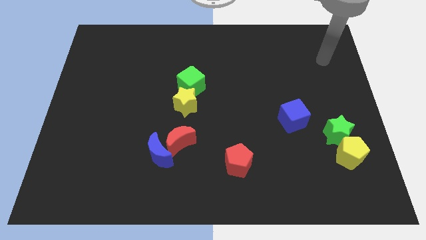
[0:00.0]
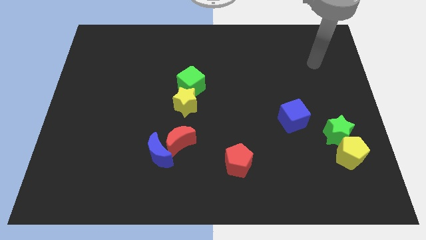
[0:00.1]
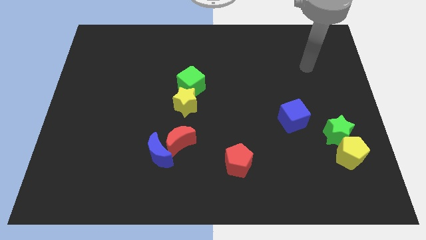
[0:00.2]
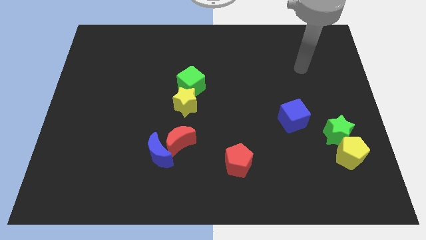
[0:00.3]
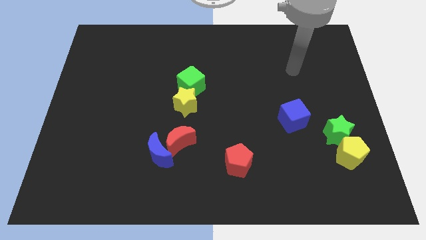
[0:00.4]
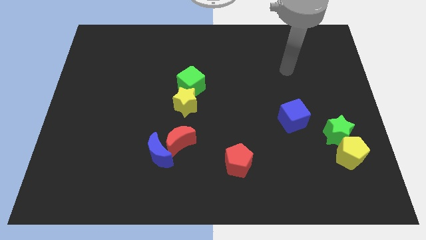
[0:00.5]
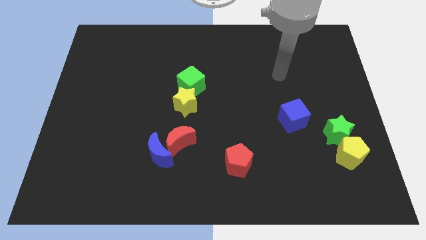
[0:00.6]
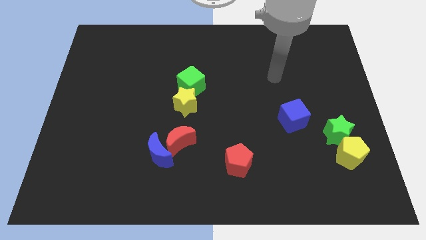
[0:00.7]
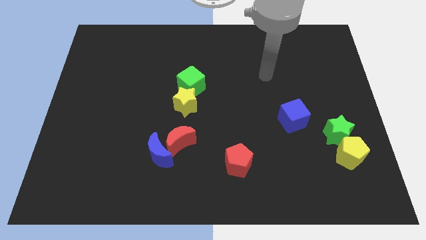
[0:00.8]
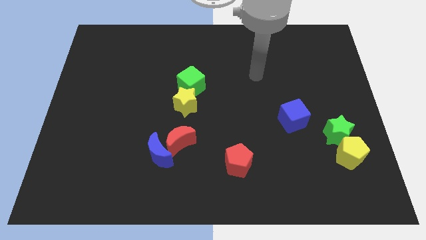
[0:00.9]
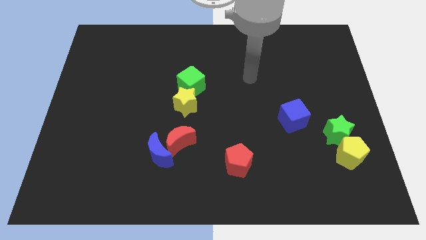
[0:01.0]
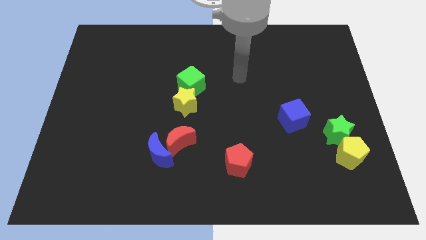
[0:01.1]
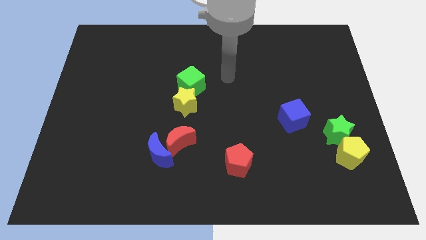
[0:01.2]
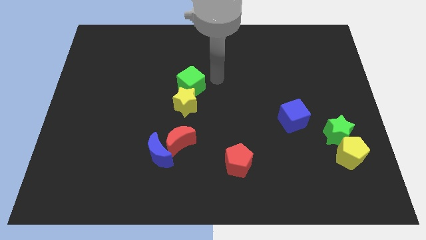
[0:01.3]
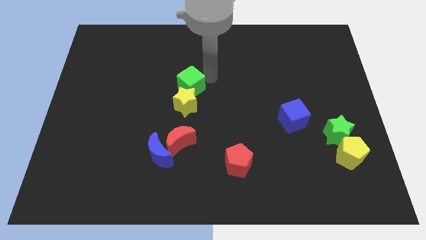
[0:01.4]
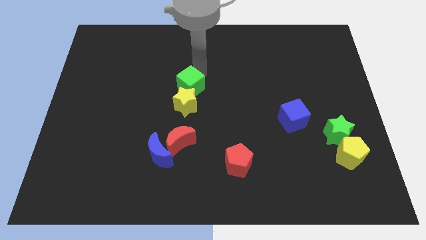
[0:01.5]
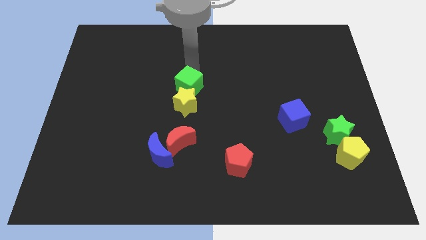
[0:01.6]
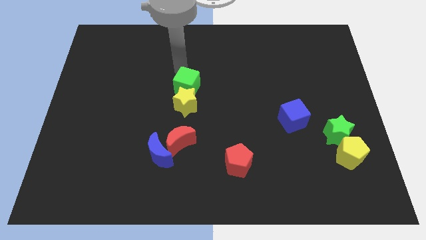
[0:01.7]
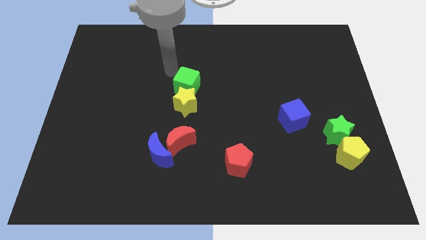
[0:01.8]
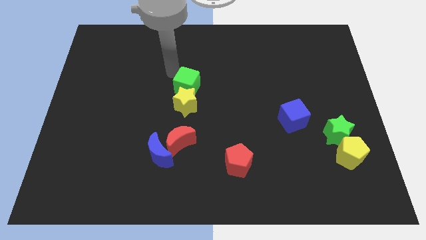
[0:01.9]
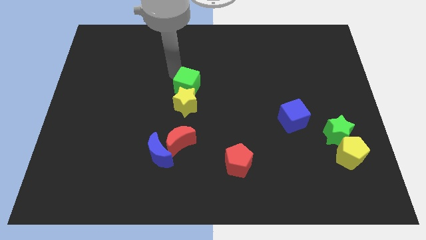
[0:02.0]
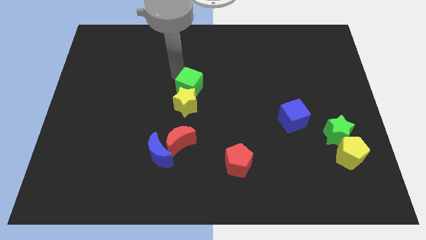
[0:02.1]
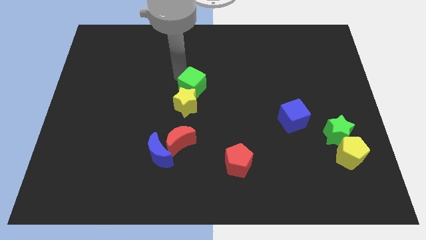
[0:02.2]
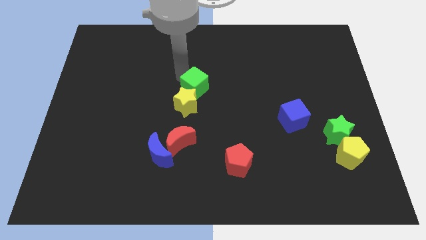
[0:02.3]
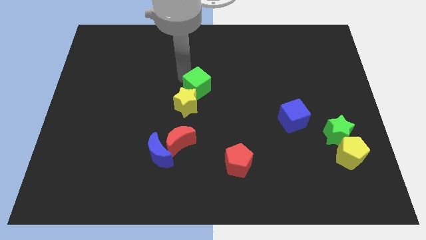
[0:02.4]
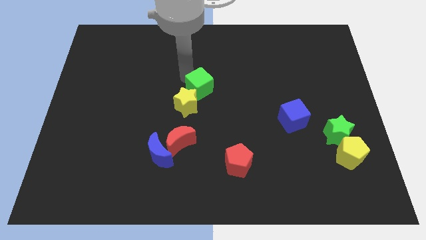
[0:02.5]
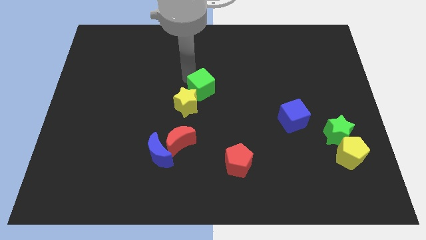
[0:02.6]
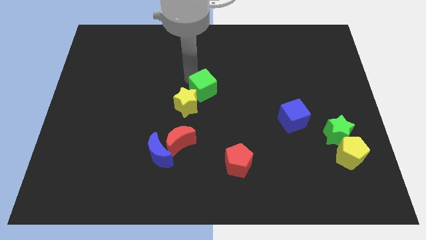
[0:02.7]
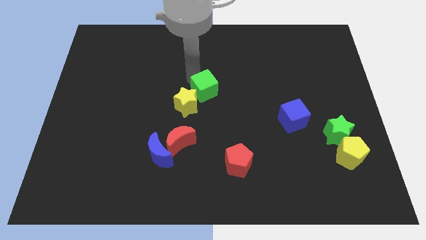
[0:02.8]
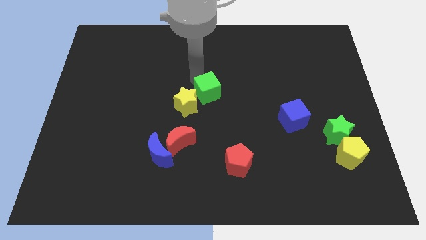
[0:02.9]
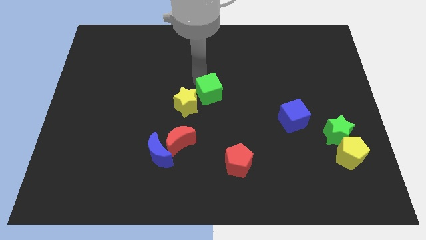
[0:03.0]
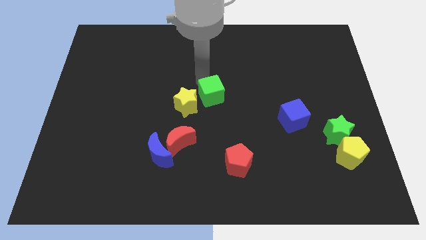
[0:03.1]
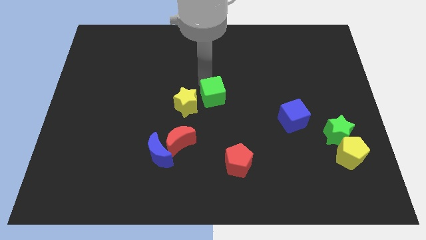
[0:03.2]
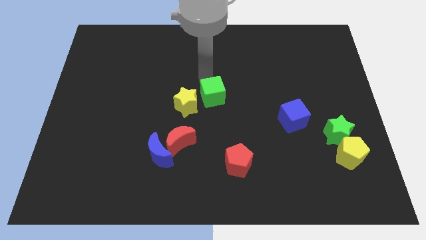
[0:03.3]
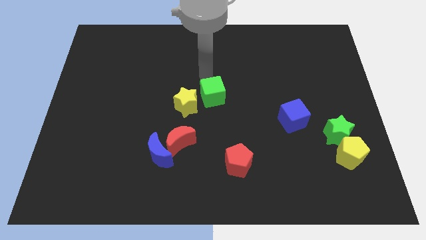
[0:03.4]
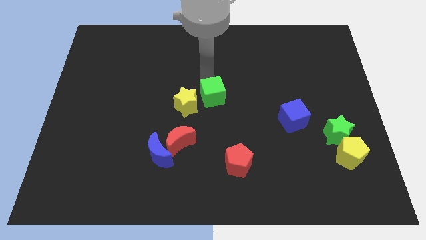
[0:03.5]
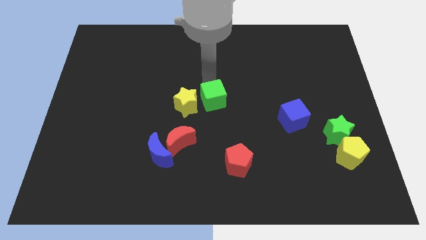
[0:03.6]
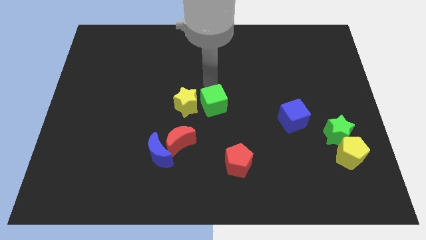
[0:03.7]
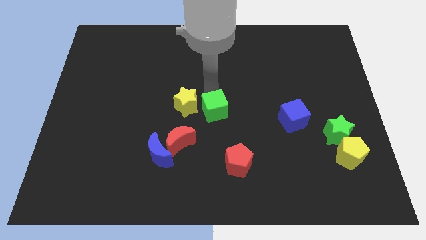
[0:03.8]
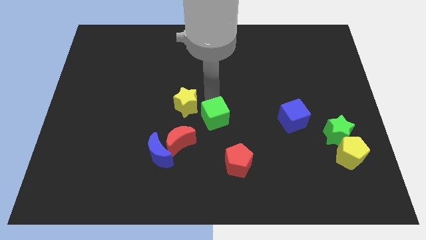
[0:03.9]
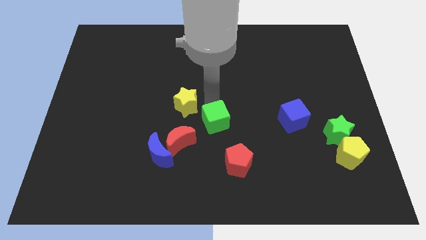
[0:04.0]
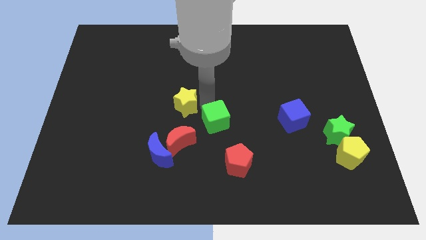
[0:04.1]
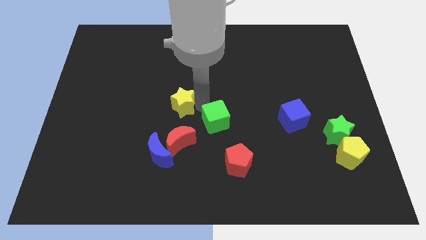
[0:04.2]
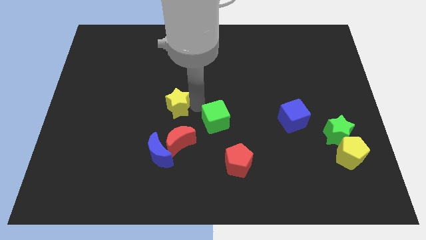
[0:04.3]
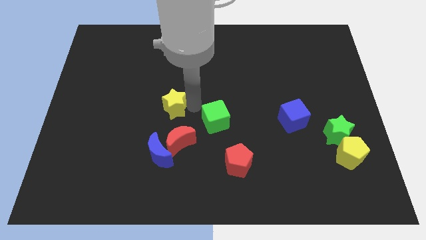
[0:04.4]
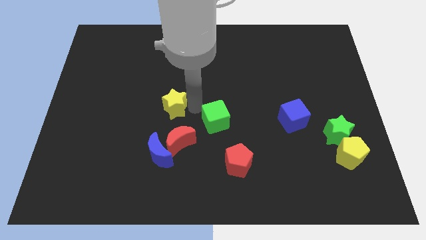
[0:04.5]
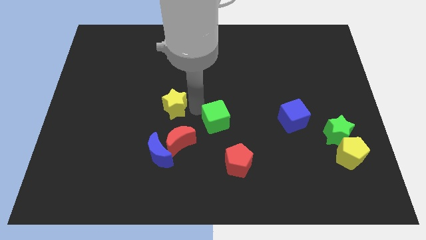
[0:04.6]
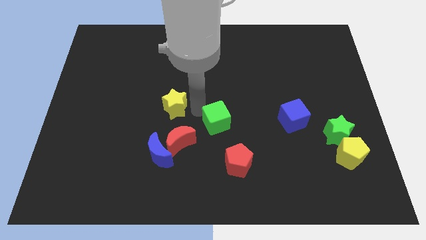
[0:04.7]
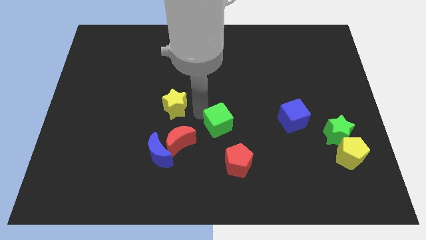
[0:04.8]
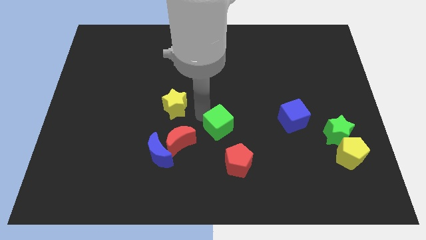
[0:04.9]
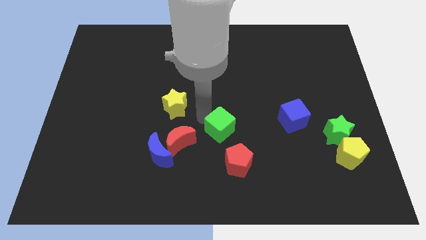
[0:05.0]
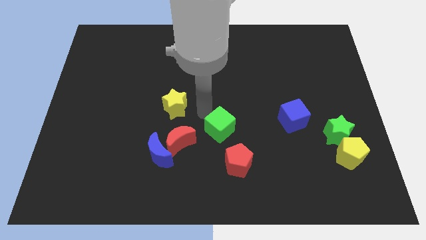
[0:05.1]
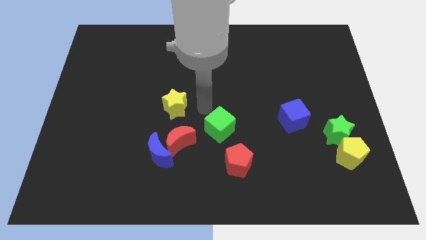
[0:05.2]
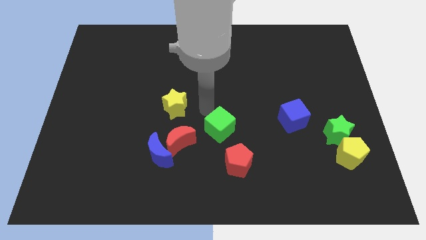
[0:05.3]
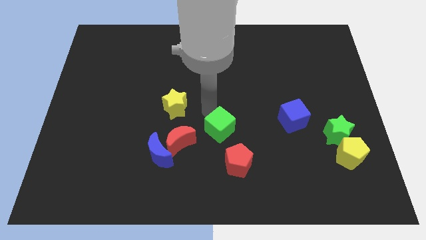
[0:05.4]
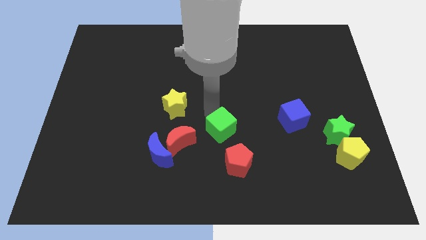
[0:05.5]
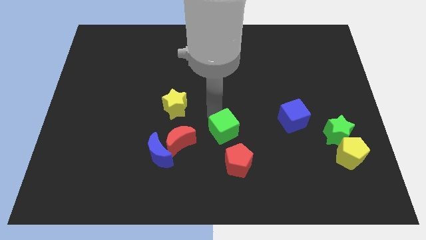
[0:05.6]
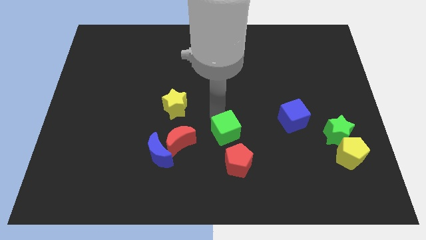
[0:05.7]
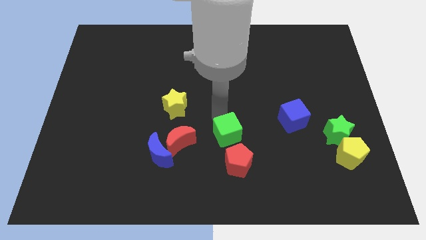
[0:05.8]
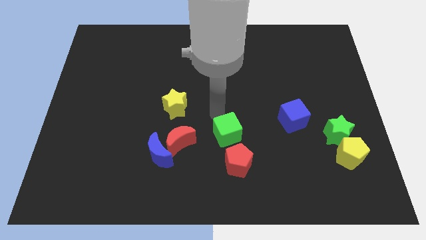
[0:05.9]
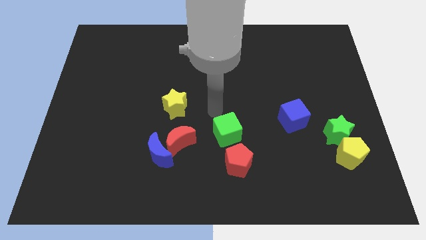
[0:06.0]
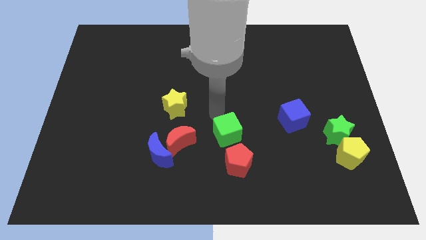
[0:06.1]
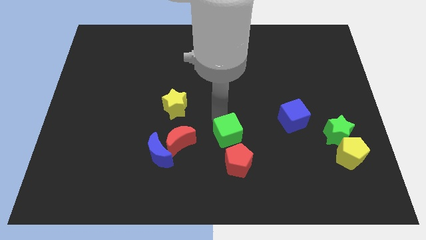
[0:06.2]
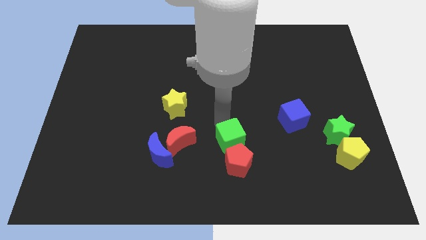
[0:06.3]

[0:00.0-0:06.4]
put the green cube next to the red pentagon
